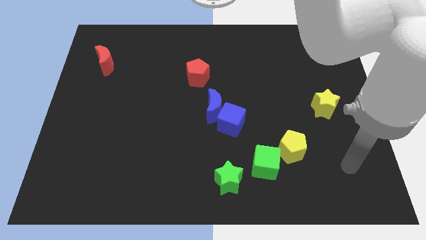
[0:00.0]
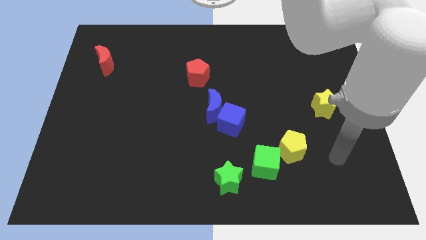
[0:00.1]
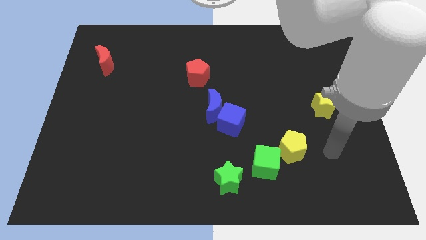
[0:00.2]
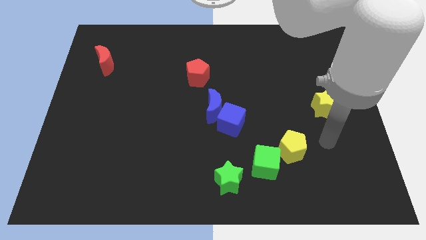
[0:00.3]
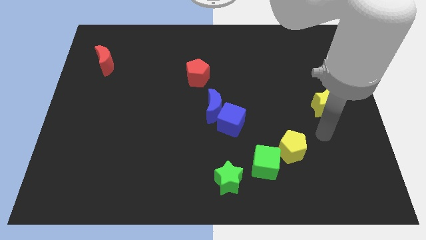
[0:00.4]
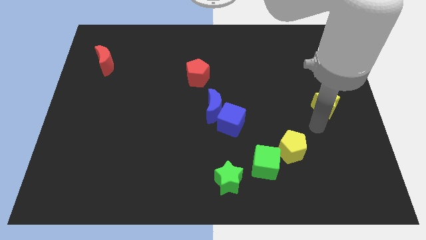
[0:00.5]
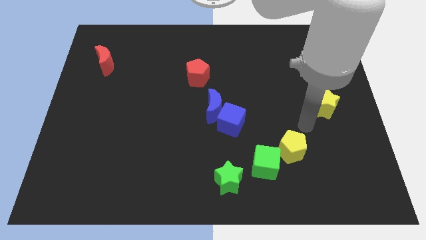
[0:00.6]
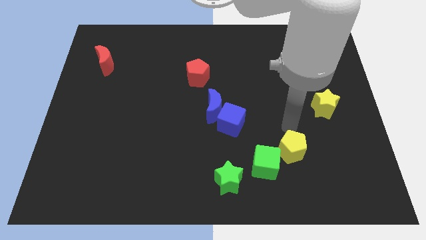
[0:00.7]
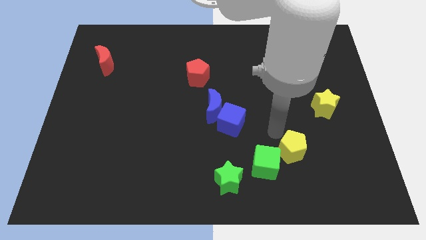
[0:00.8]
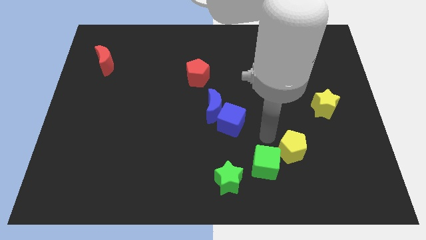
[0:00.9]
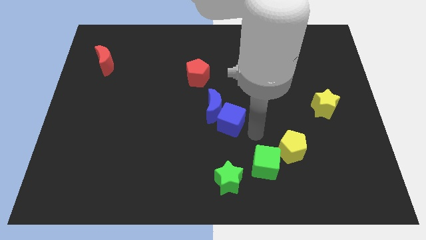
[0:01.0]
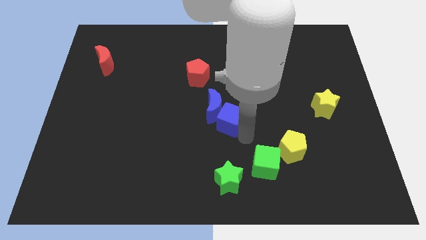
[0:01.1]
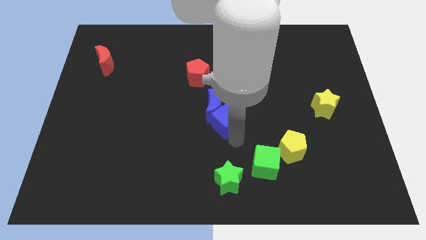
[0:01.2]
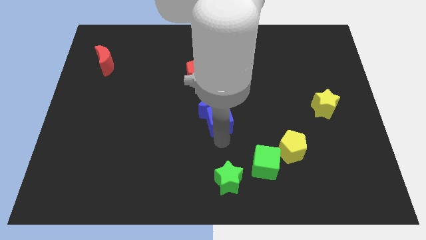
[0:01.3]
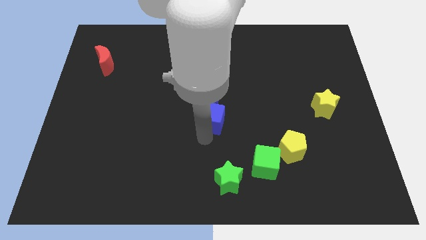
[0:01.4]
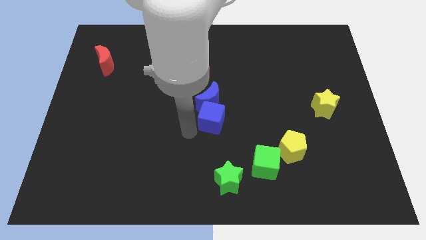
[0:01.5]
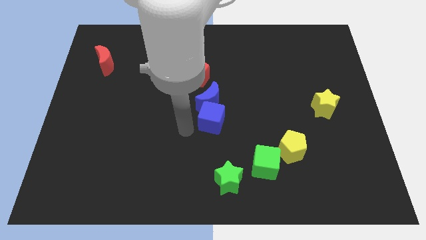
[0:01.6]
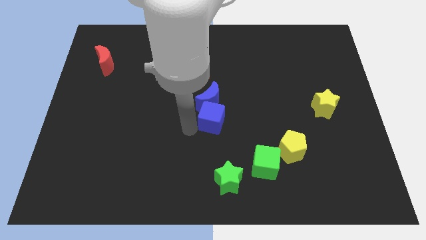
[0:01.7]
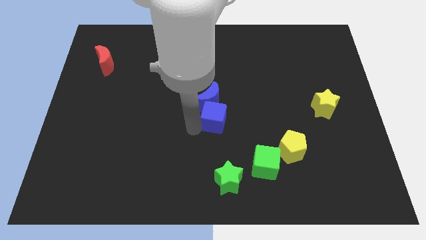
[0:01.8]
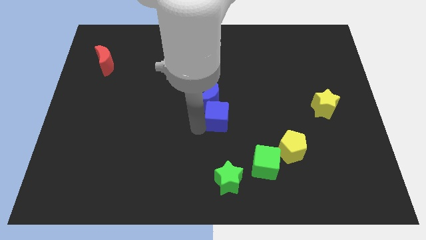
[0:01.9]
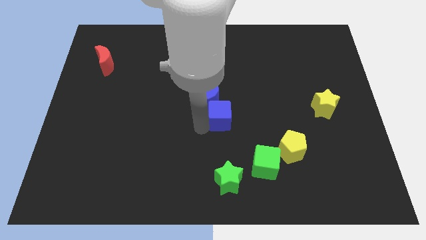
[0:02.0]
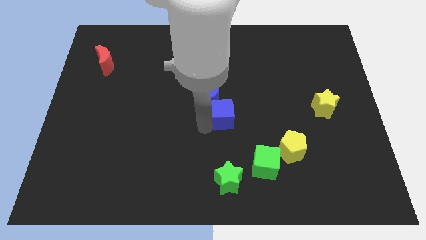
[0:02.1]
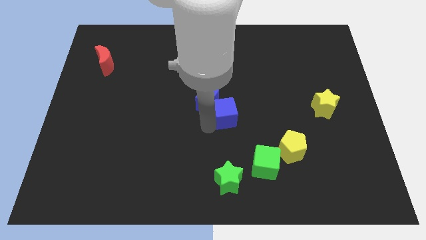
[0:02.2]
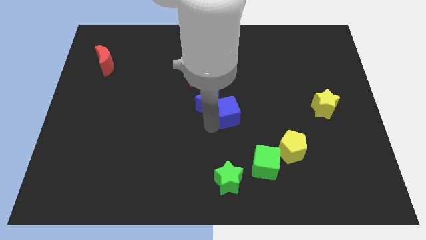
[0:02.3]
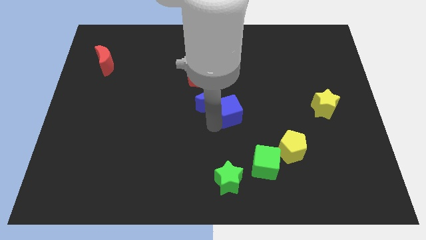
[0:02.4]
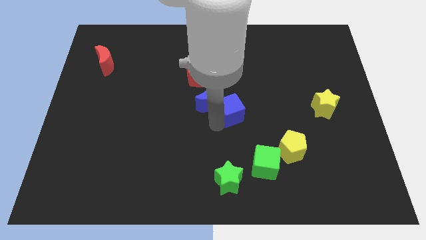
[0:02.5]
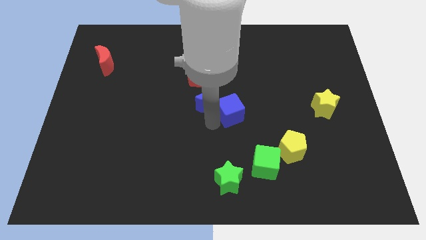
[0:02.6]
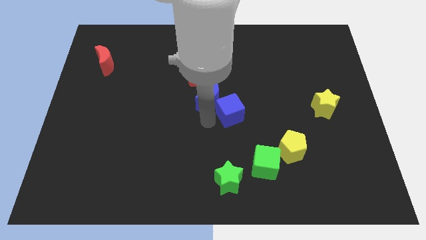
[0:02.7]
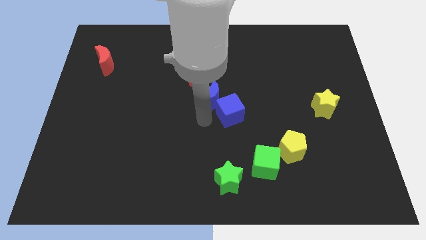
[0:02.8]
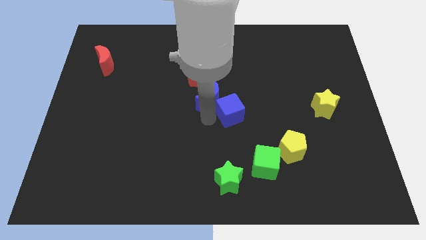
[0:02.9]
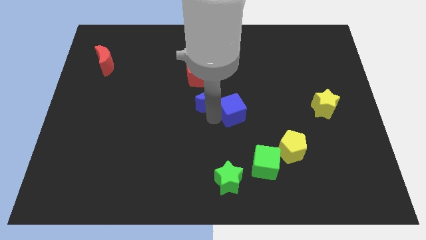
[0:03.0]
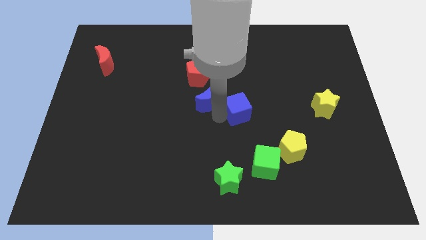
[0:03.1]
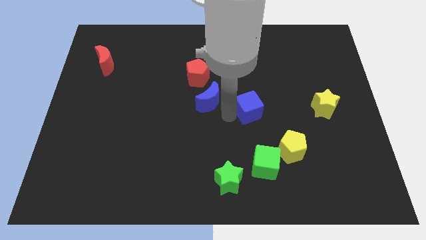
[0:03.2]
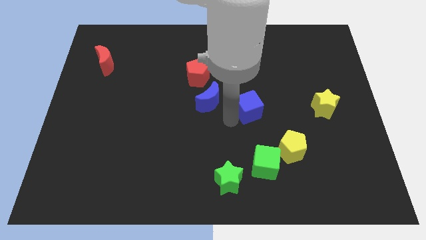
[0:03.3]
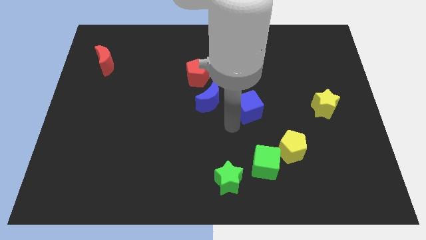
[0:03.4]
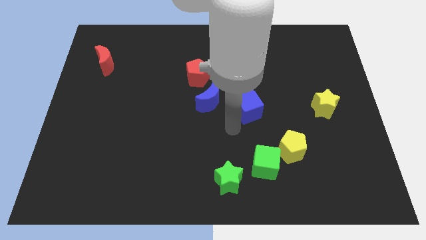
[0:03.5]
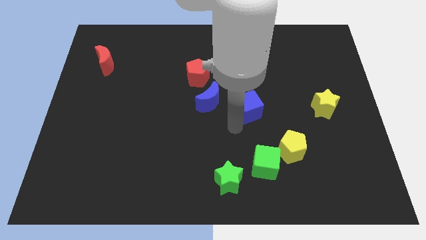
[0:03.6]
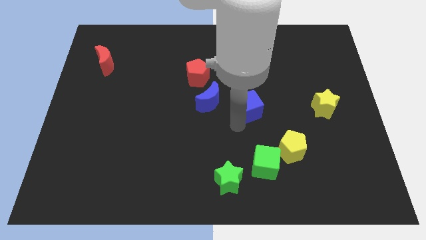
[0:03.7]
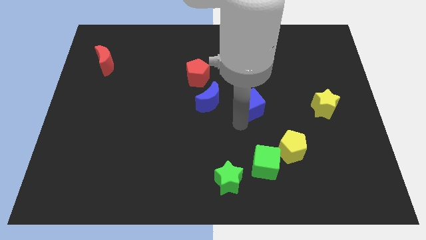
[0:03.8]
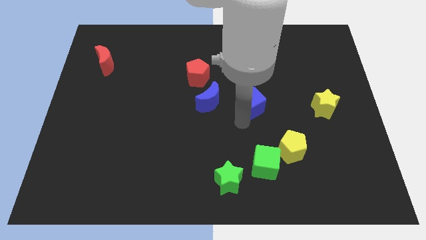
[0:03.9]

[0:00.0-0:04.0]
push the blue cube up and then right somewhat

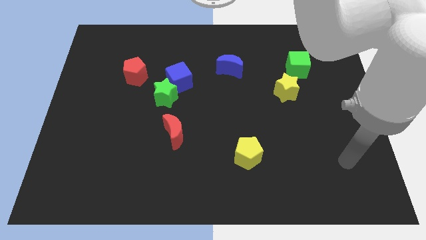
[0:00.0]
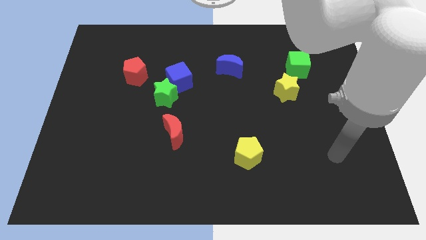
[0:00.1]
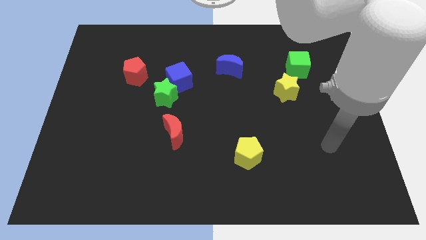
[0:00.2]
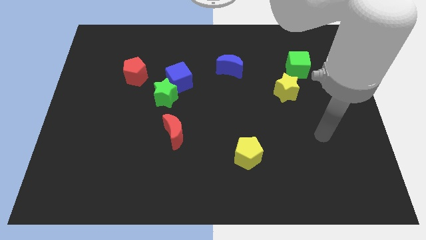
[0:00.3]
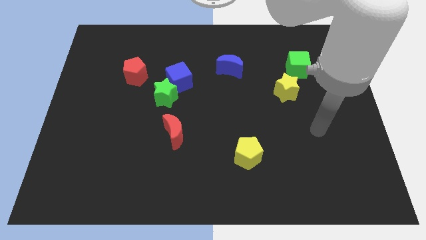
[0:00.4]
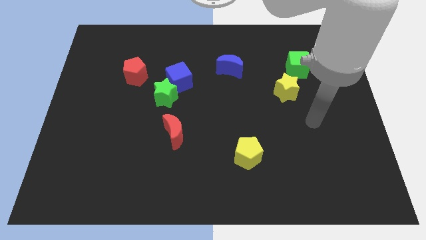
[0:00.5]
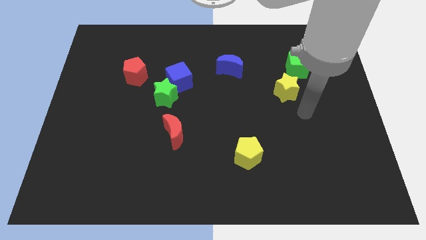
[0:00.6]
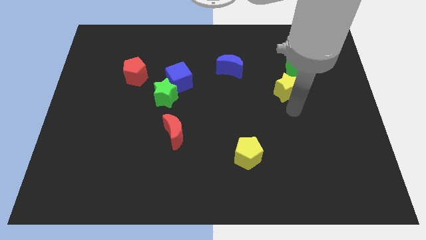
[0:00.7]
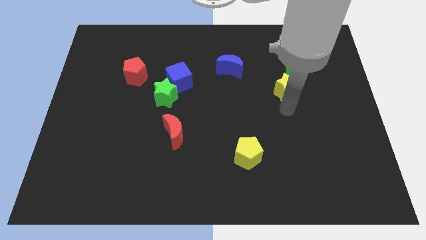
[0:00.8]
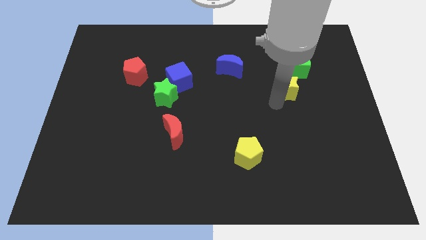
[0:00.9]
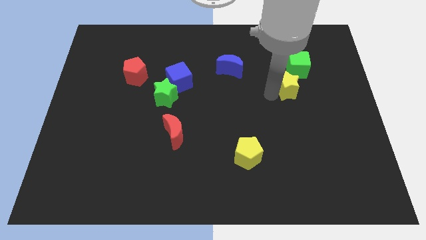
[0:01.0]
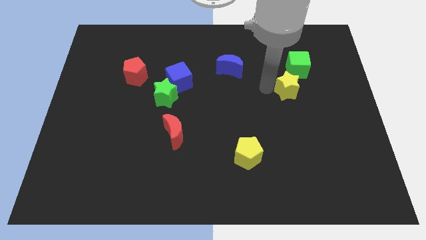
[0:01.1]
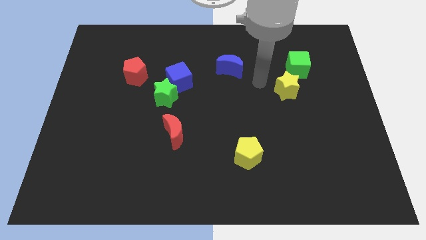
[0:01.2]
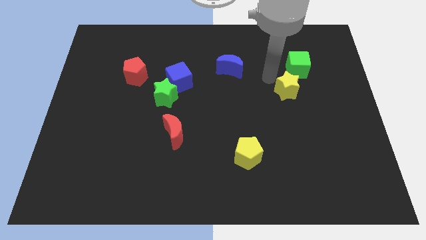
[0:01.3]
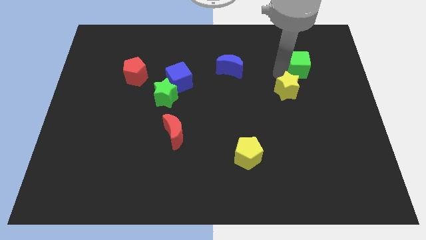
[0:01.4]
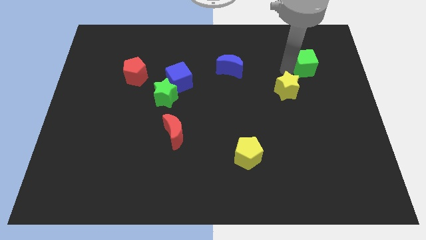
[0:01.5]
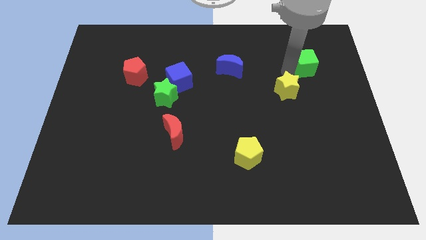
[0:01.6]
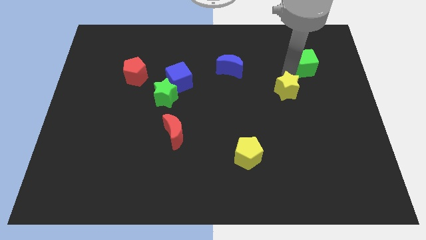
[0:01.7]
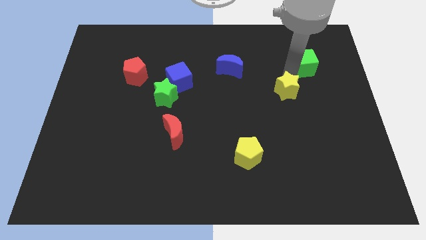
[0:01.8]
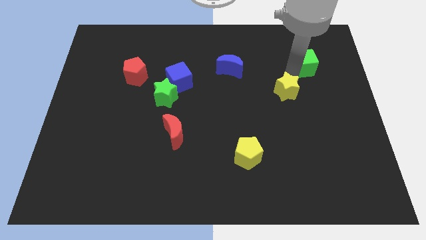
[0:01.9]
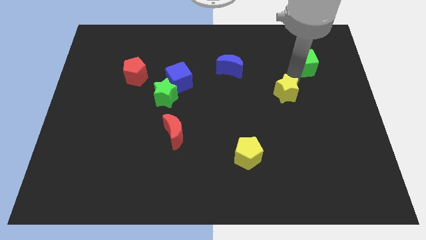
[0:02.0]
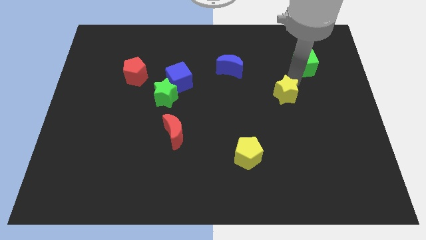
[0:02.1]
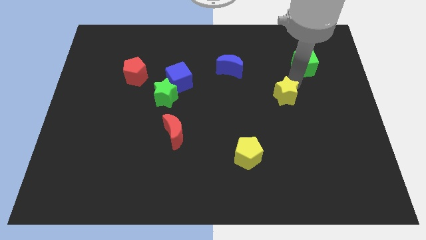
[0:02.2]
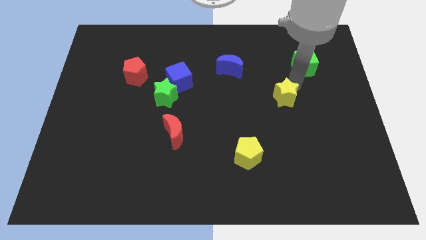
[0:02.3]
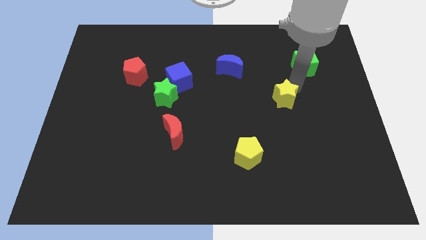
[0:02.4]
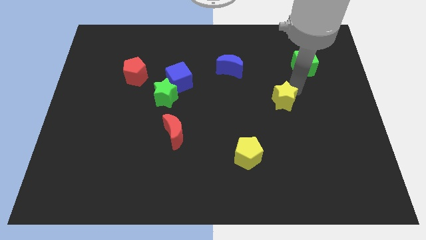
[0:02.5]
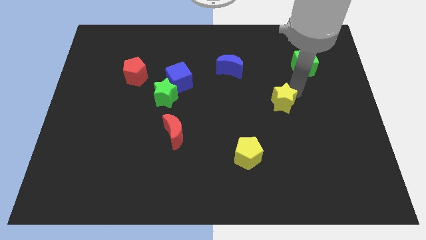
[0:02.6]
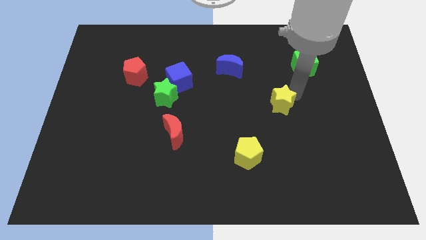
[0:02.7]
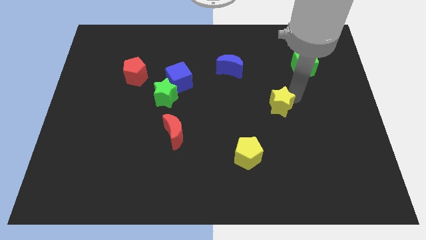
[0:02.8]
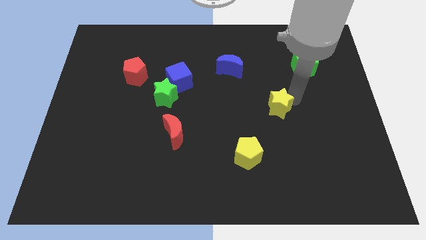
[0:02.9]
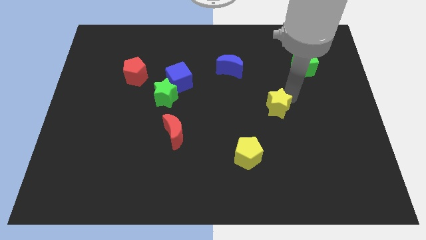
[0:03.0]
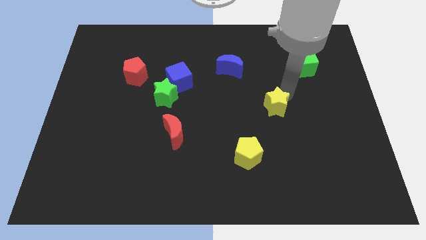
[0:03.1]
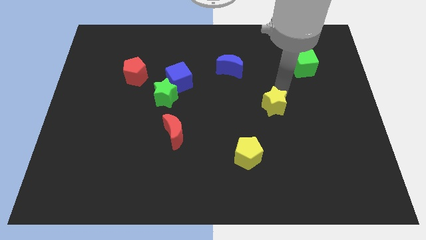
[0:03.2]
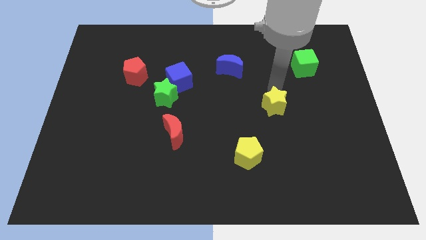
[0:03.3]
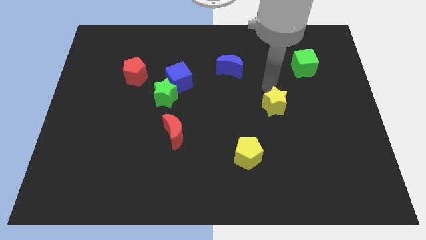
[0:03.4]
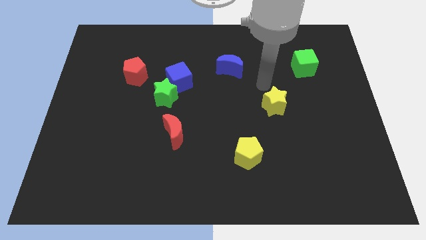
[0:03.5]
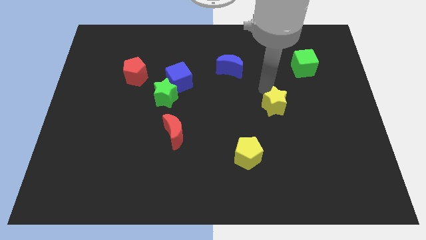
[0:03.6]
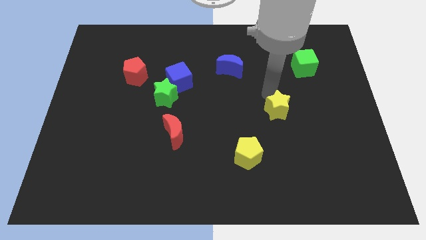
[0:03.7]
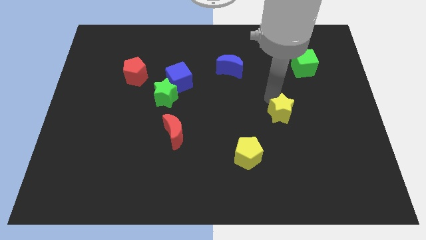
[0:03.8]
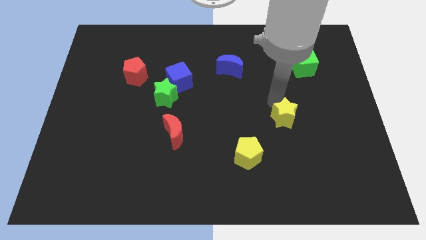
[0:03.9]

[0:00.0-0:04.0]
push the yellow star down a bit
